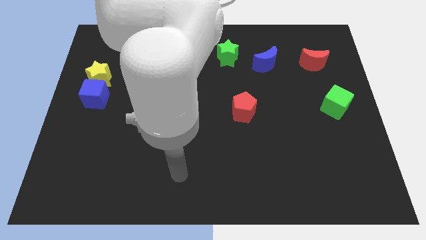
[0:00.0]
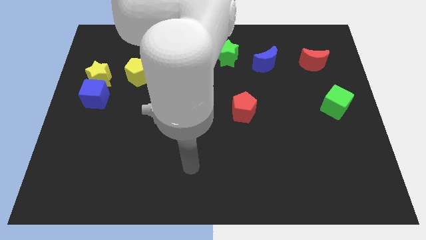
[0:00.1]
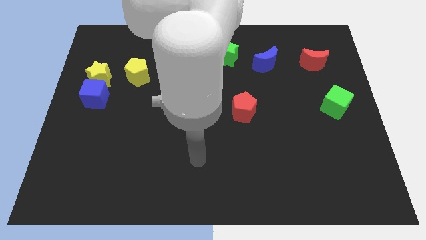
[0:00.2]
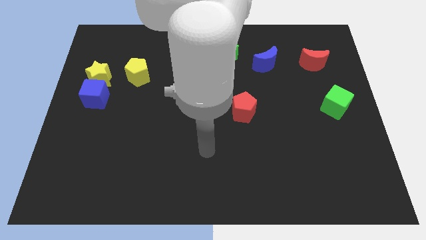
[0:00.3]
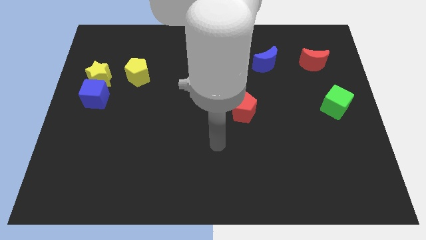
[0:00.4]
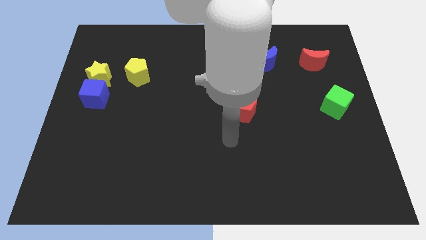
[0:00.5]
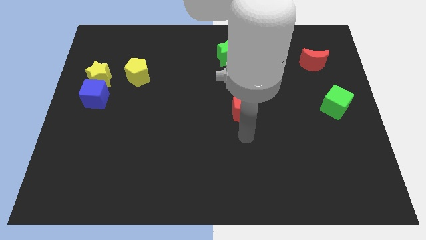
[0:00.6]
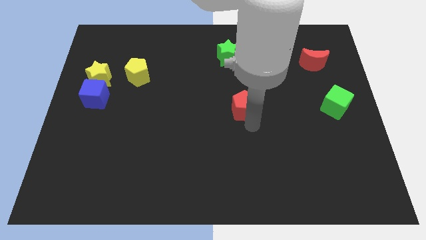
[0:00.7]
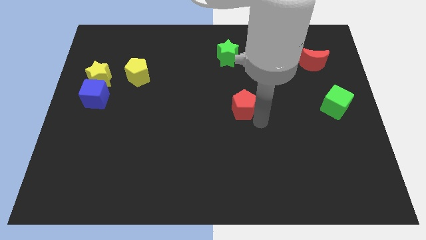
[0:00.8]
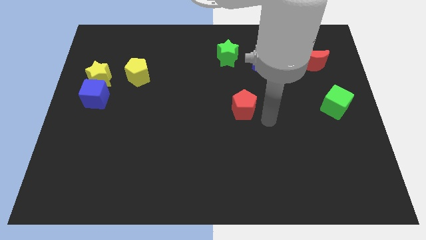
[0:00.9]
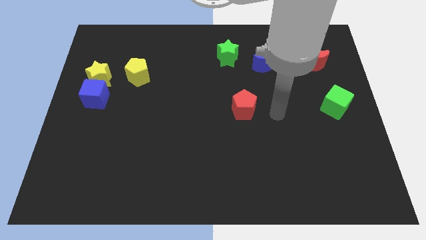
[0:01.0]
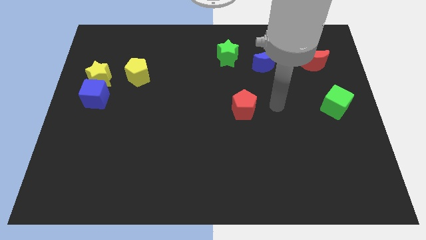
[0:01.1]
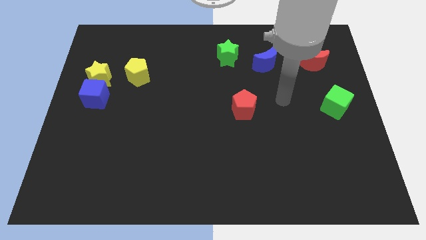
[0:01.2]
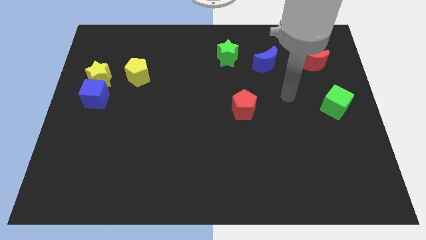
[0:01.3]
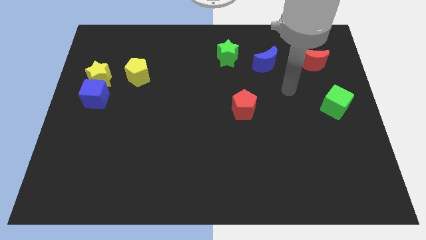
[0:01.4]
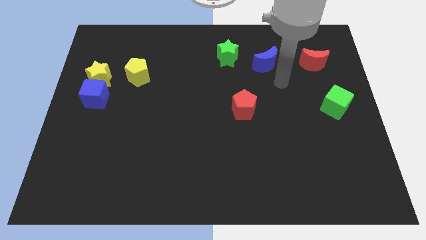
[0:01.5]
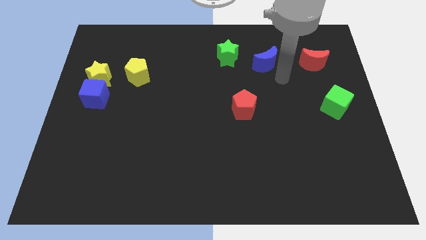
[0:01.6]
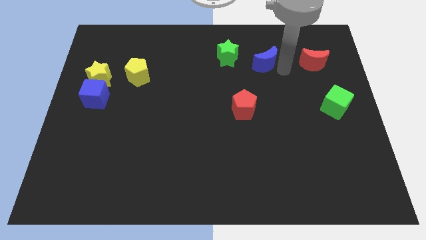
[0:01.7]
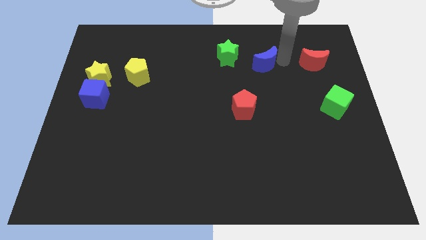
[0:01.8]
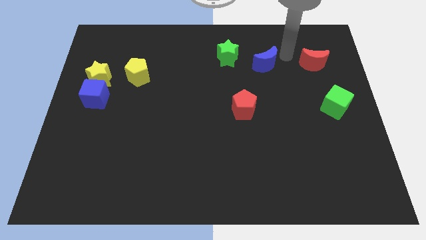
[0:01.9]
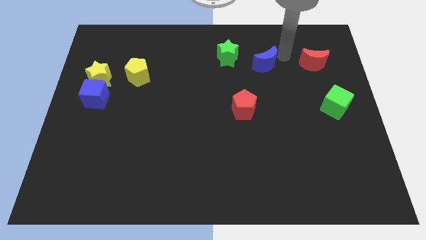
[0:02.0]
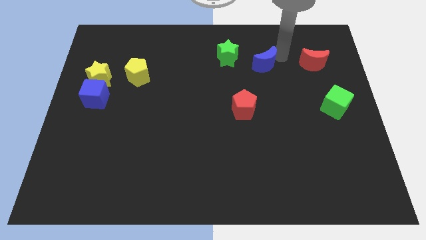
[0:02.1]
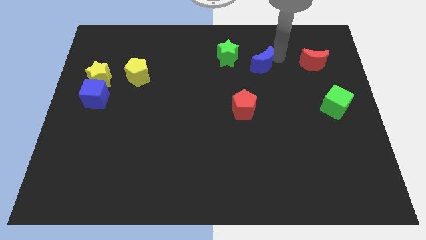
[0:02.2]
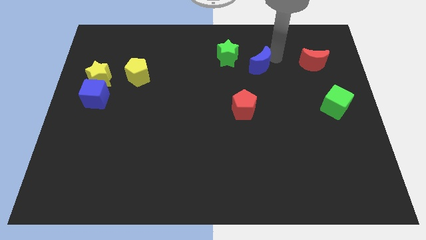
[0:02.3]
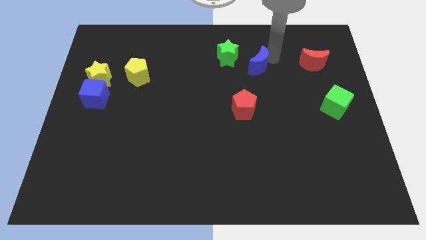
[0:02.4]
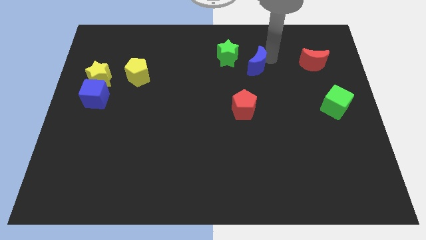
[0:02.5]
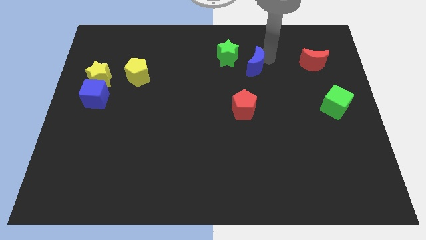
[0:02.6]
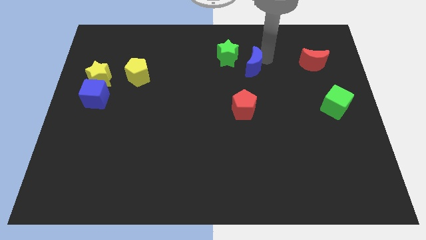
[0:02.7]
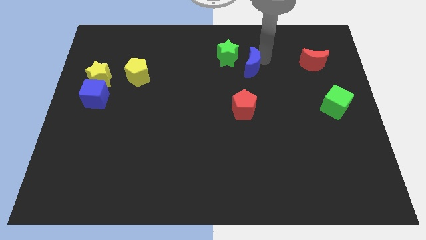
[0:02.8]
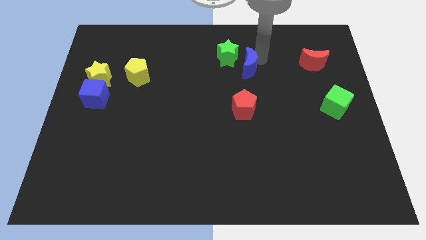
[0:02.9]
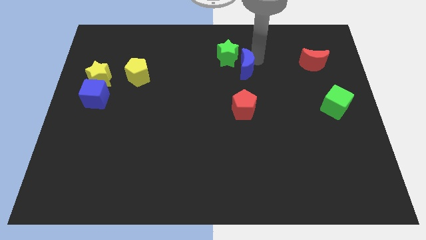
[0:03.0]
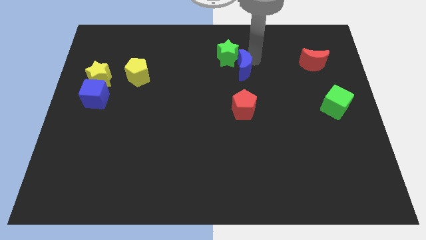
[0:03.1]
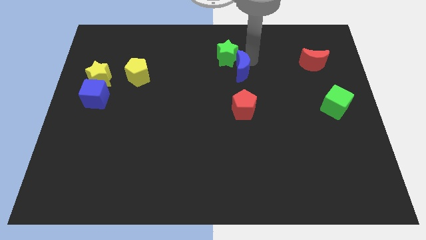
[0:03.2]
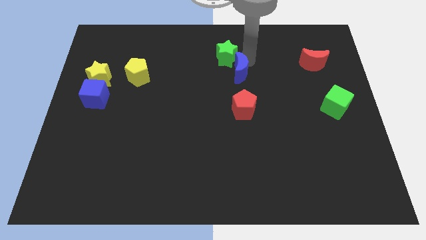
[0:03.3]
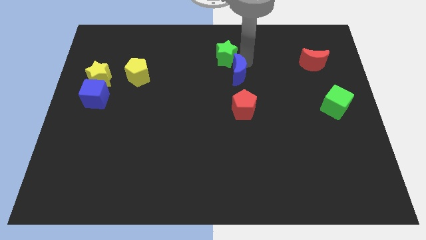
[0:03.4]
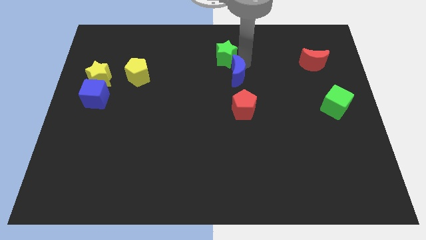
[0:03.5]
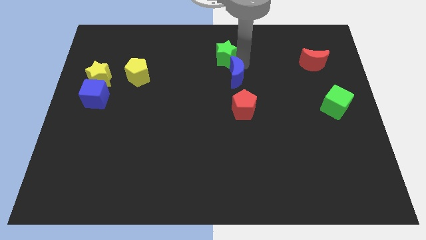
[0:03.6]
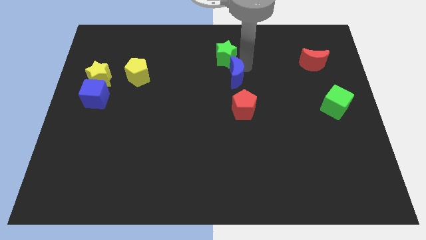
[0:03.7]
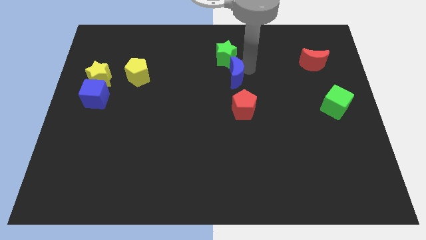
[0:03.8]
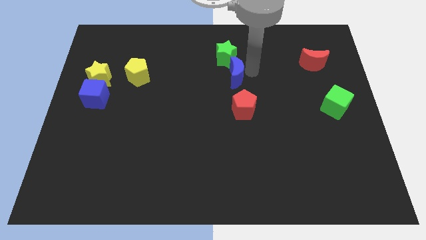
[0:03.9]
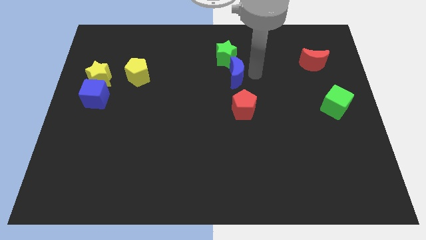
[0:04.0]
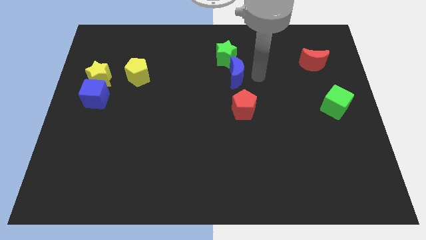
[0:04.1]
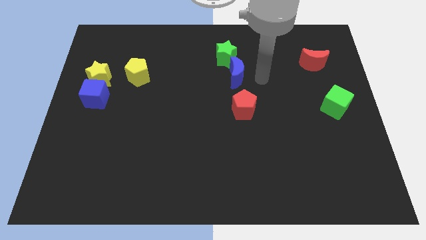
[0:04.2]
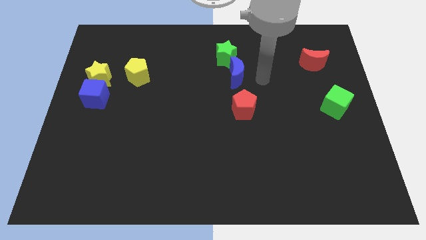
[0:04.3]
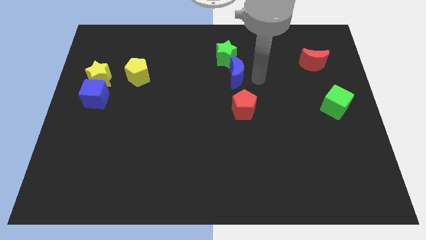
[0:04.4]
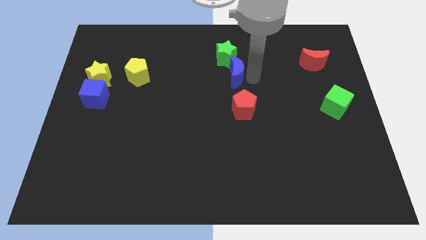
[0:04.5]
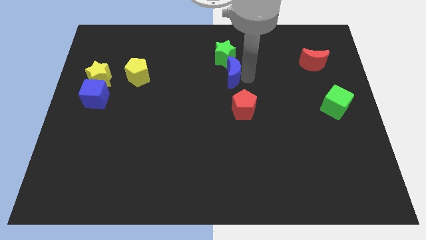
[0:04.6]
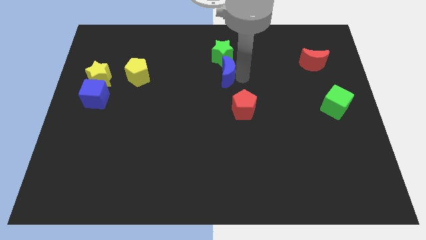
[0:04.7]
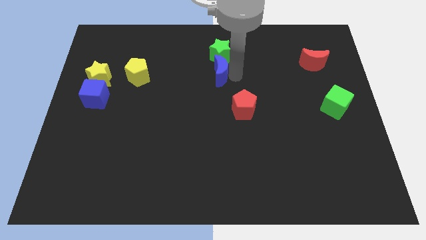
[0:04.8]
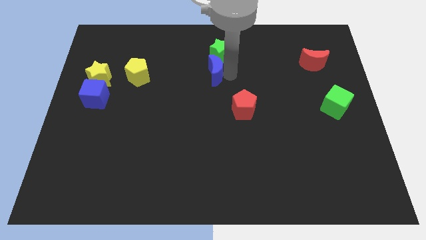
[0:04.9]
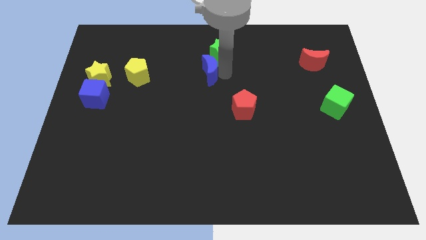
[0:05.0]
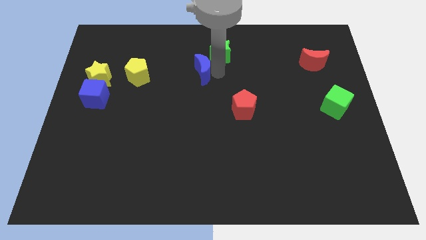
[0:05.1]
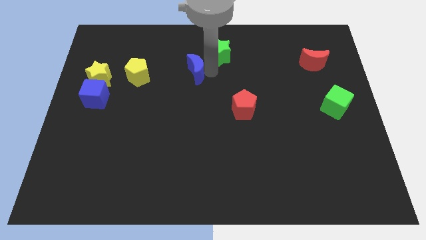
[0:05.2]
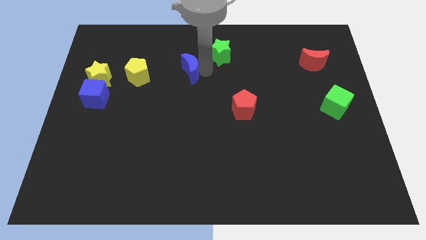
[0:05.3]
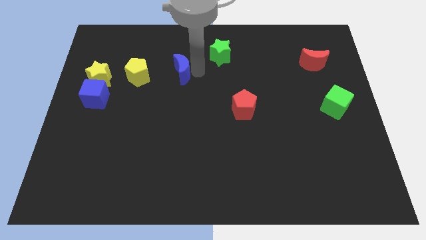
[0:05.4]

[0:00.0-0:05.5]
slide the blue moon to the left

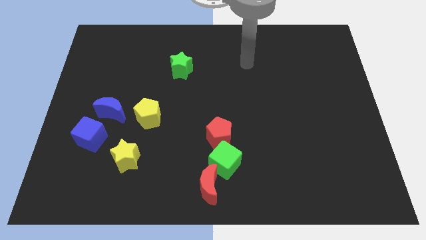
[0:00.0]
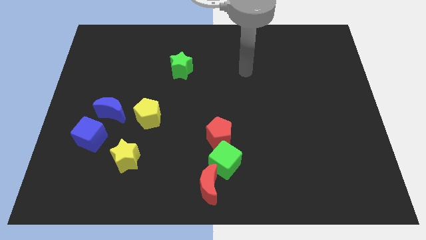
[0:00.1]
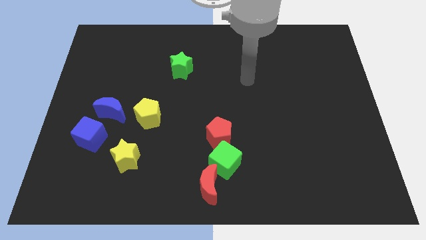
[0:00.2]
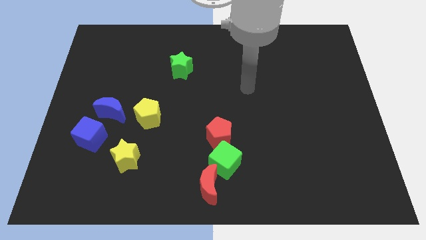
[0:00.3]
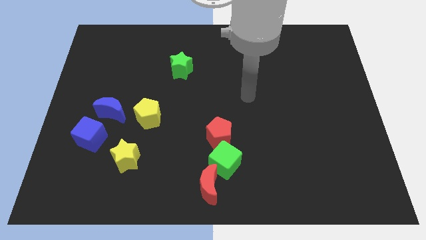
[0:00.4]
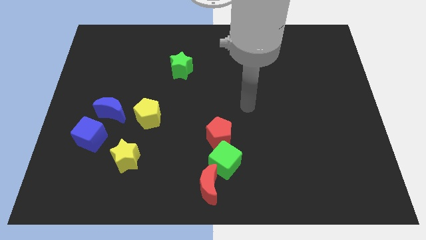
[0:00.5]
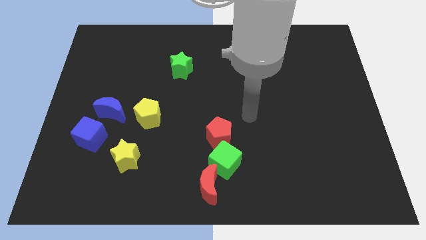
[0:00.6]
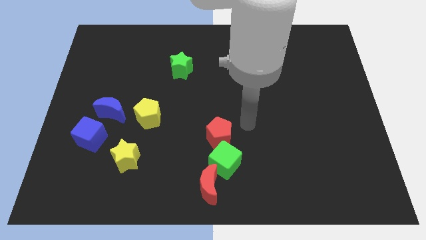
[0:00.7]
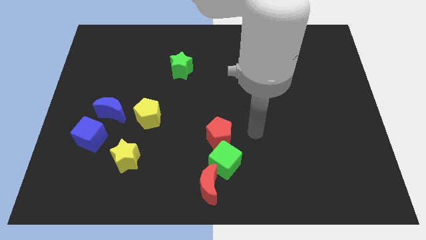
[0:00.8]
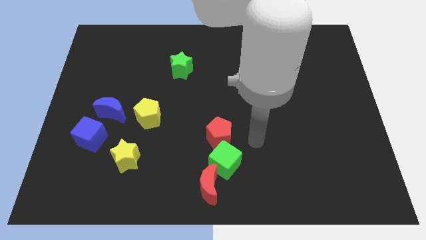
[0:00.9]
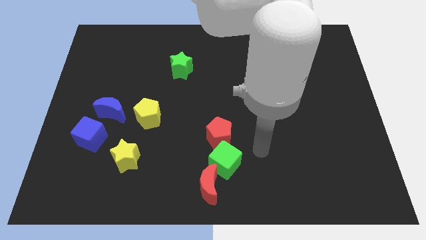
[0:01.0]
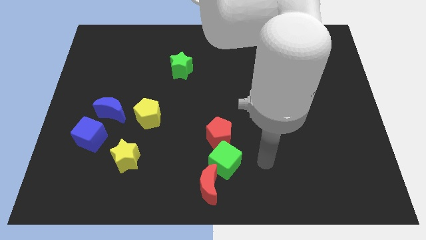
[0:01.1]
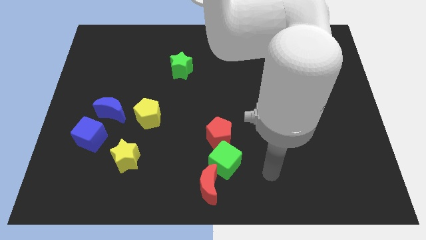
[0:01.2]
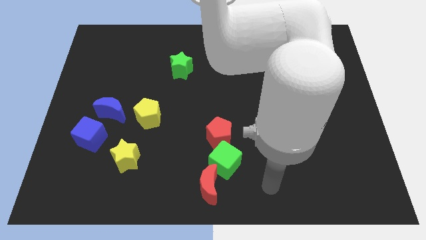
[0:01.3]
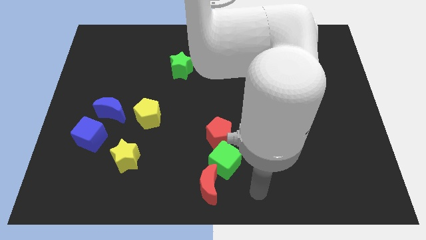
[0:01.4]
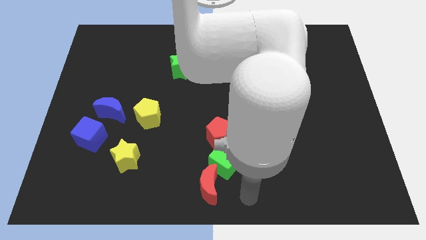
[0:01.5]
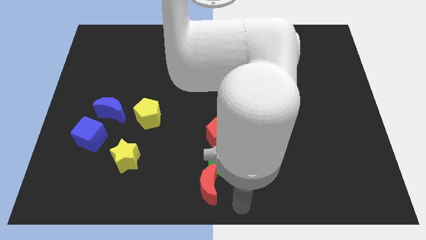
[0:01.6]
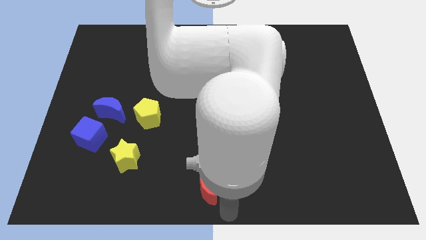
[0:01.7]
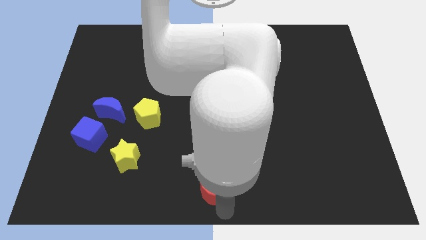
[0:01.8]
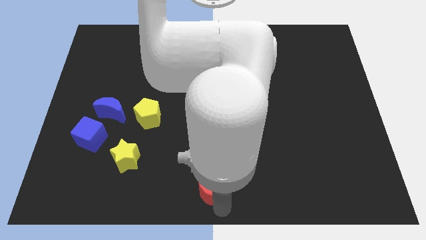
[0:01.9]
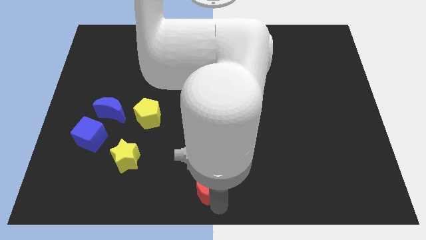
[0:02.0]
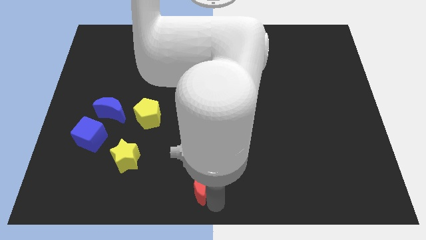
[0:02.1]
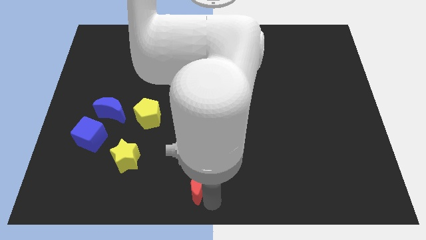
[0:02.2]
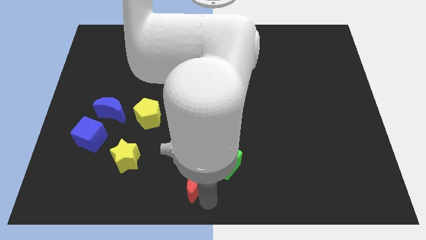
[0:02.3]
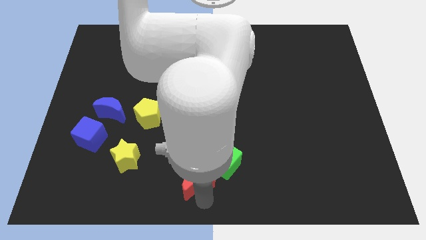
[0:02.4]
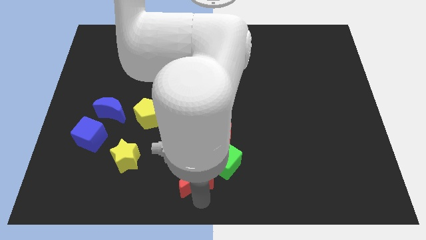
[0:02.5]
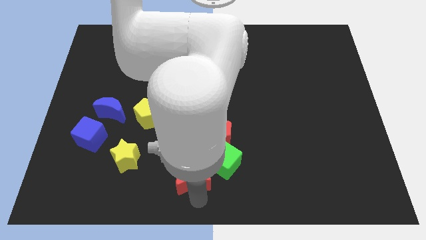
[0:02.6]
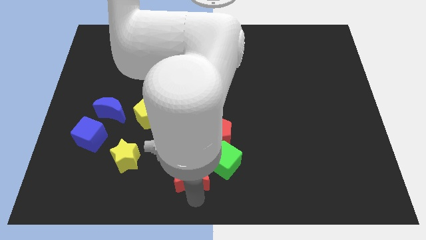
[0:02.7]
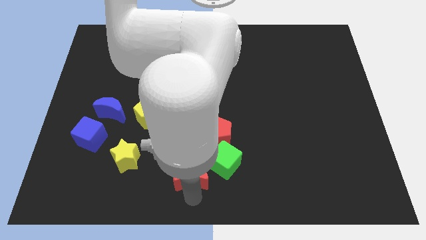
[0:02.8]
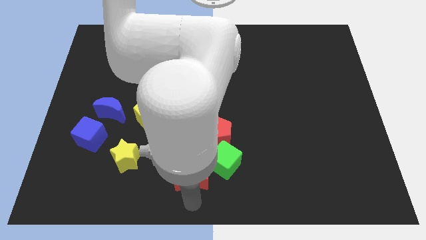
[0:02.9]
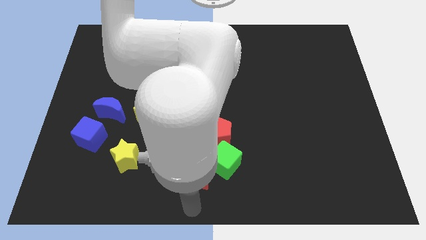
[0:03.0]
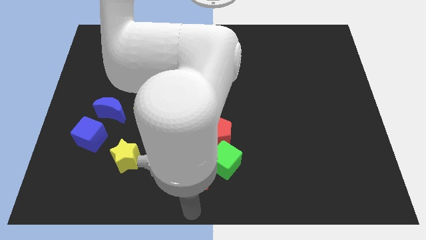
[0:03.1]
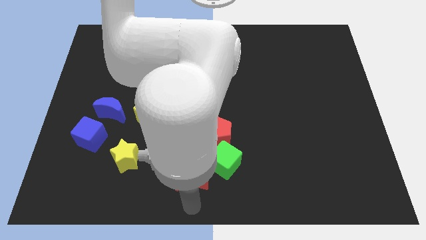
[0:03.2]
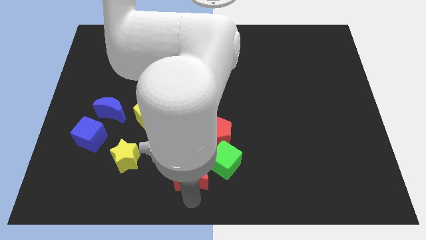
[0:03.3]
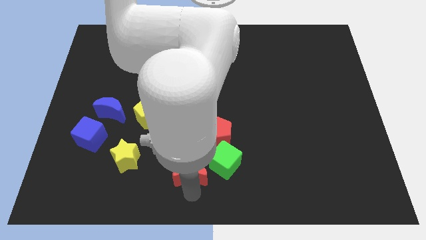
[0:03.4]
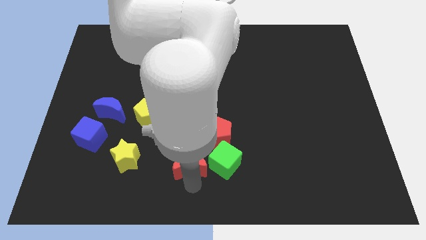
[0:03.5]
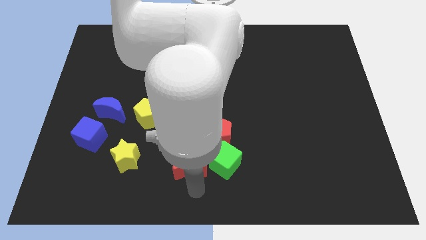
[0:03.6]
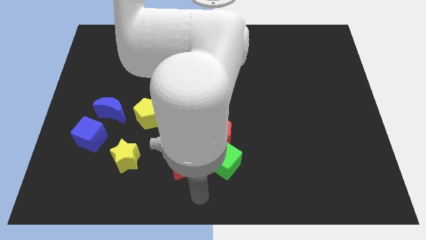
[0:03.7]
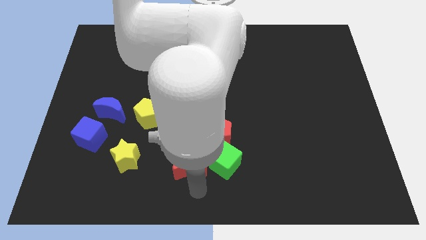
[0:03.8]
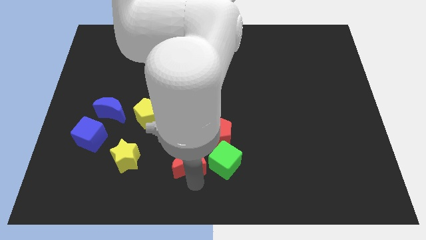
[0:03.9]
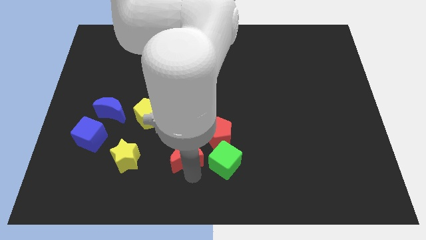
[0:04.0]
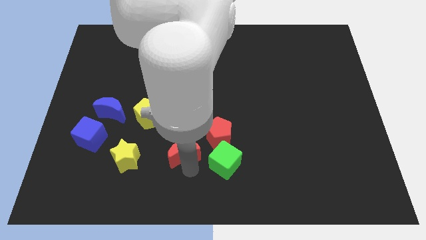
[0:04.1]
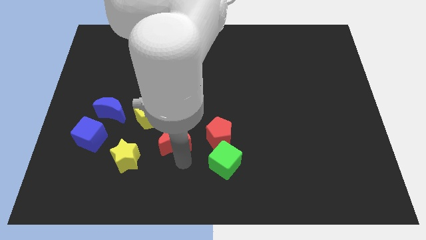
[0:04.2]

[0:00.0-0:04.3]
push the red moon upwards somewhat
